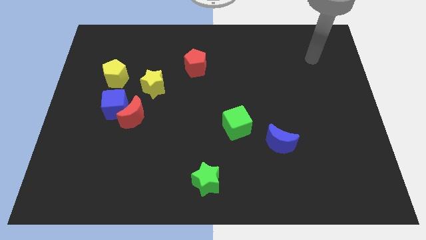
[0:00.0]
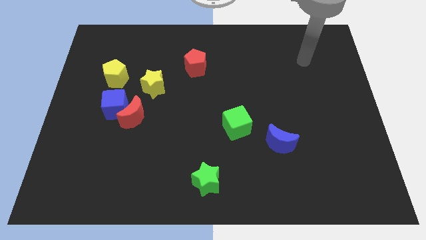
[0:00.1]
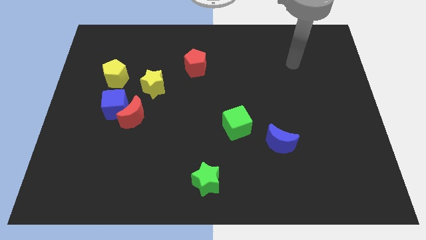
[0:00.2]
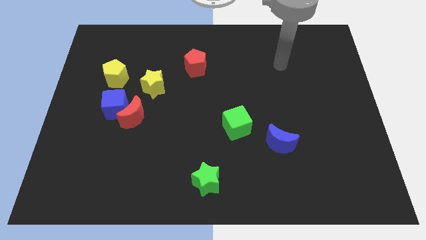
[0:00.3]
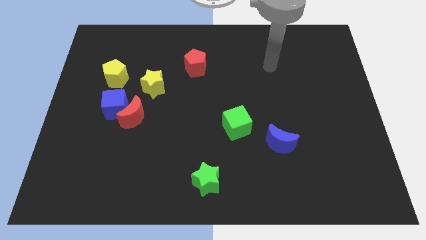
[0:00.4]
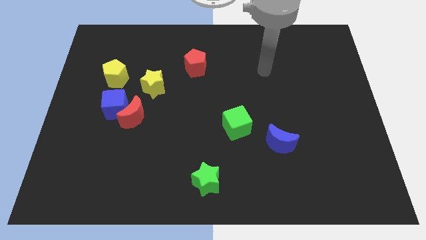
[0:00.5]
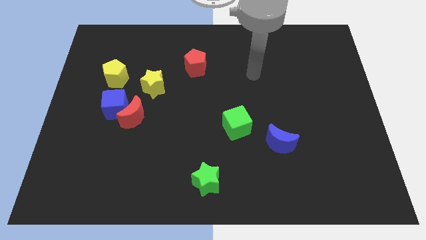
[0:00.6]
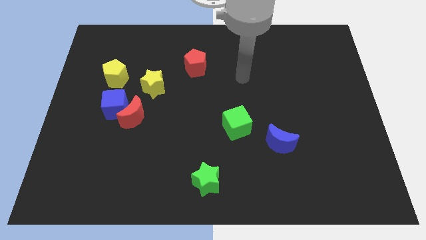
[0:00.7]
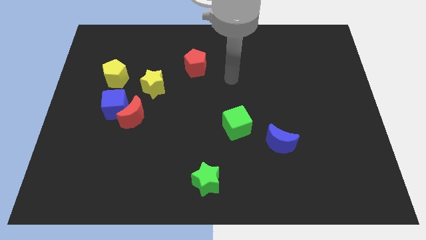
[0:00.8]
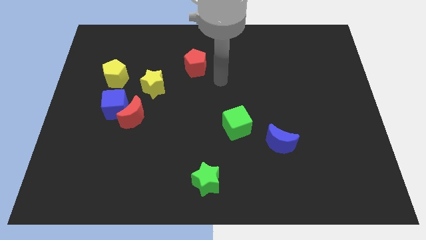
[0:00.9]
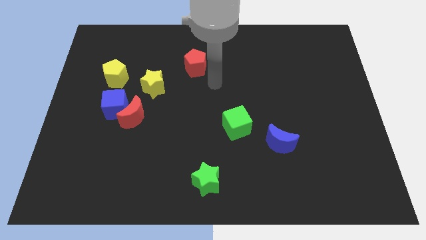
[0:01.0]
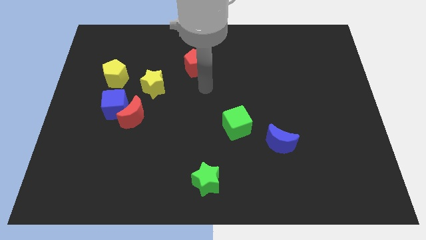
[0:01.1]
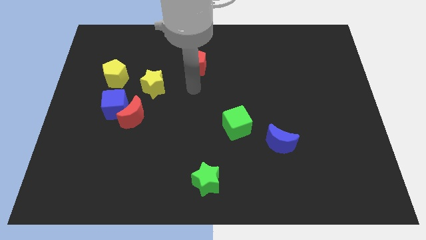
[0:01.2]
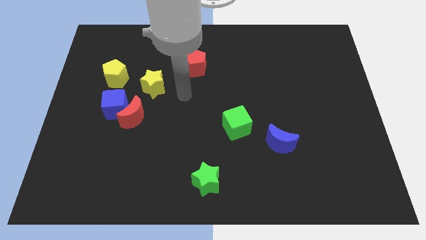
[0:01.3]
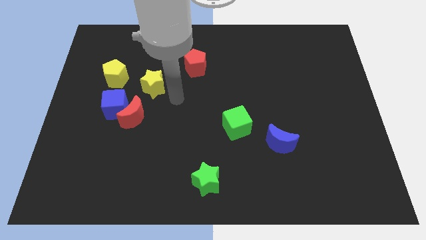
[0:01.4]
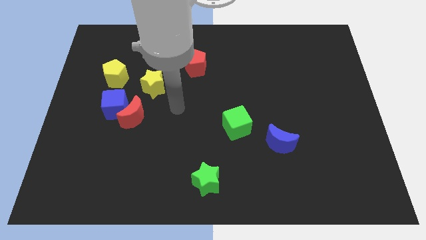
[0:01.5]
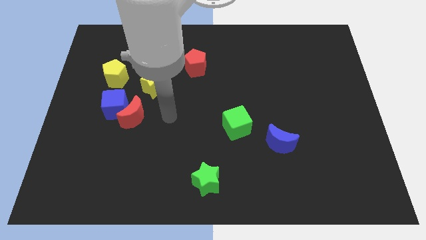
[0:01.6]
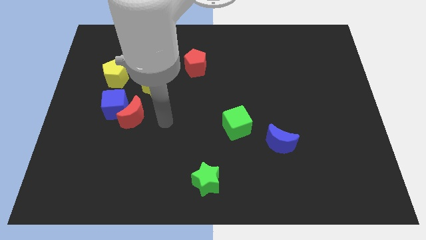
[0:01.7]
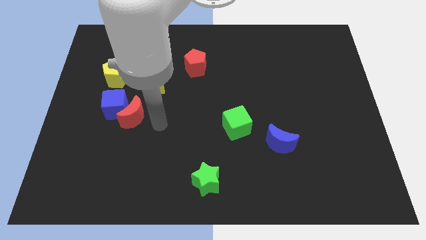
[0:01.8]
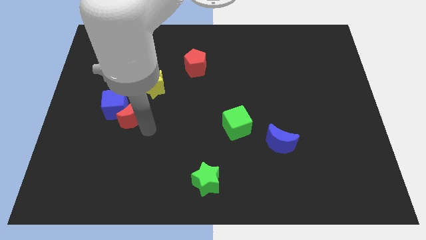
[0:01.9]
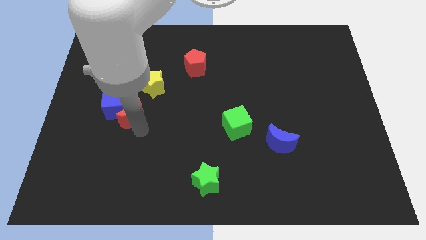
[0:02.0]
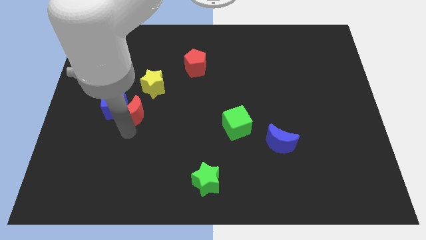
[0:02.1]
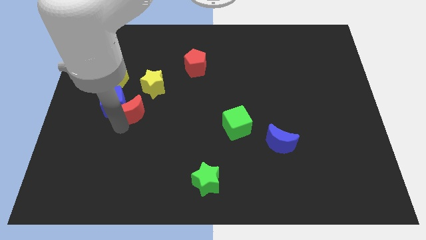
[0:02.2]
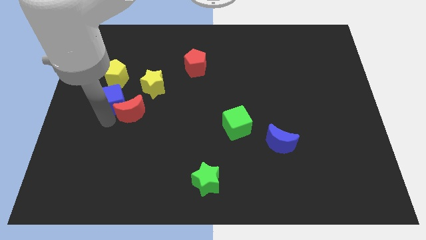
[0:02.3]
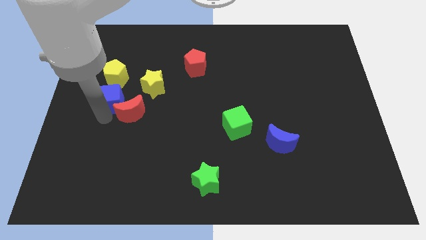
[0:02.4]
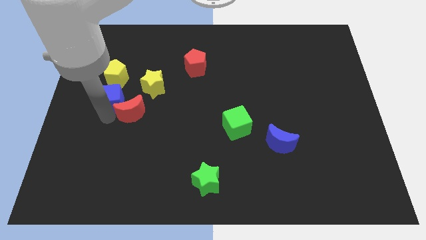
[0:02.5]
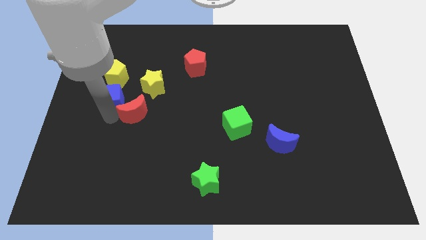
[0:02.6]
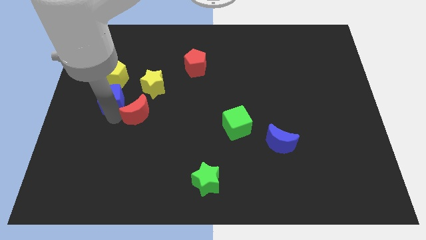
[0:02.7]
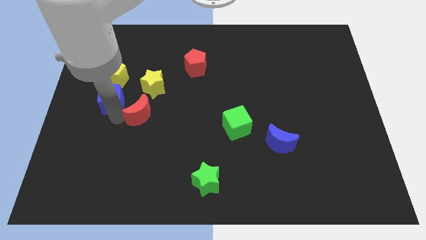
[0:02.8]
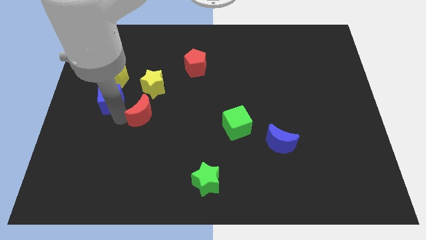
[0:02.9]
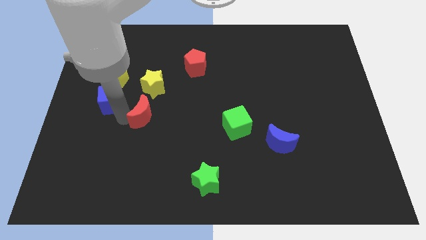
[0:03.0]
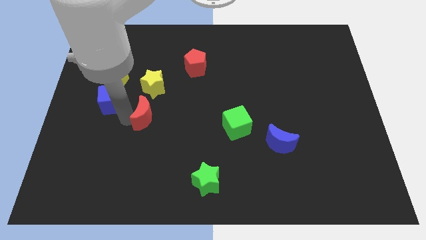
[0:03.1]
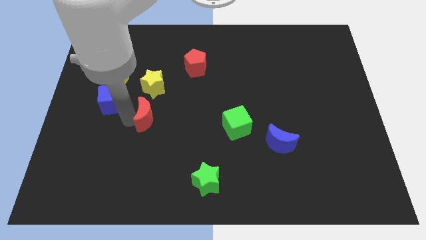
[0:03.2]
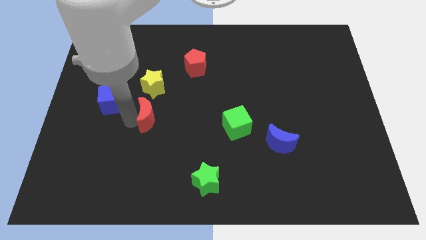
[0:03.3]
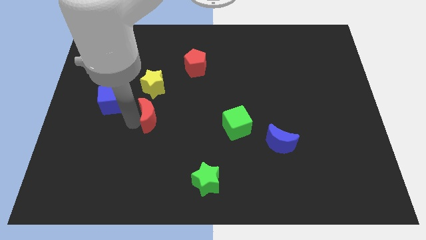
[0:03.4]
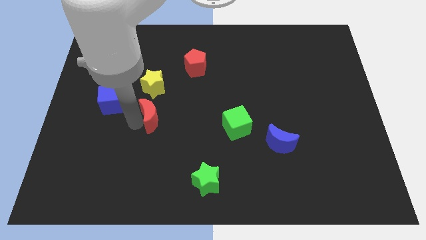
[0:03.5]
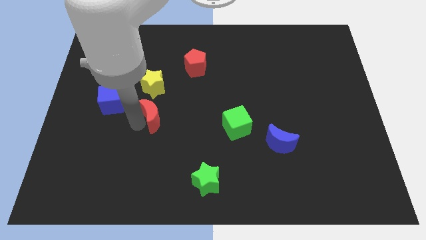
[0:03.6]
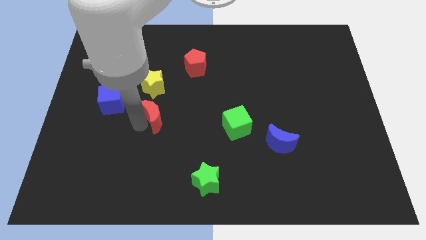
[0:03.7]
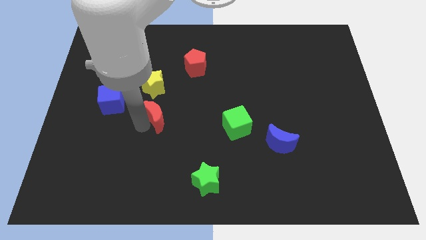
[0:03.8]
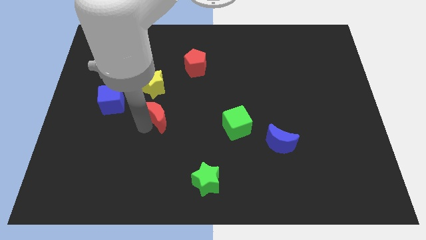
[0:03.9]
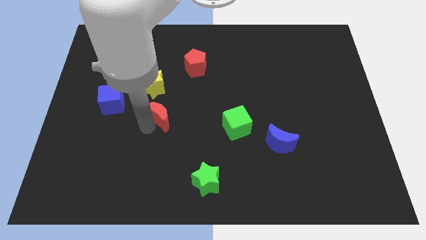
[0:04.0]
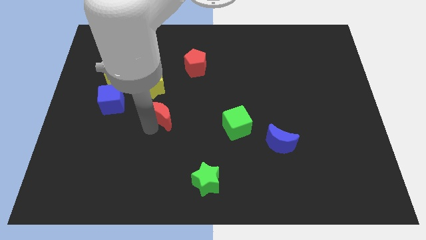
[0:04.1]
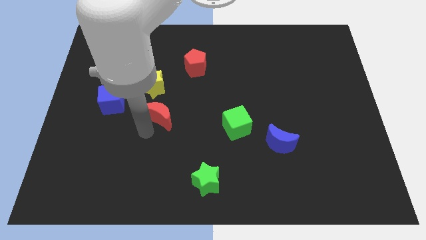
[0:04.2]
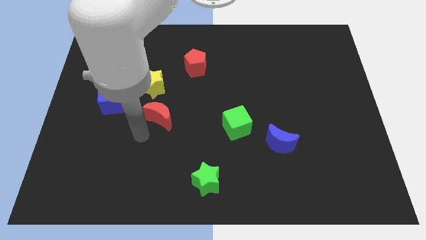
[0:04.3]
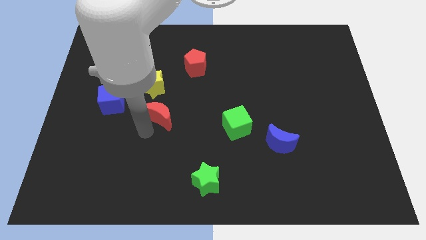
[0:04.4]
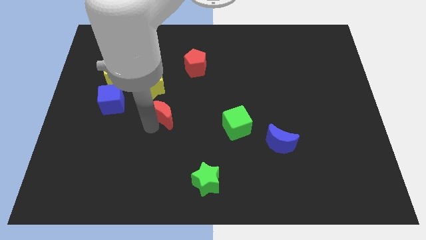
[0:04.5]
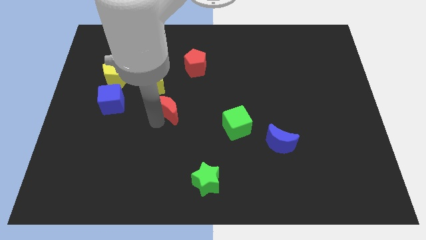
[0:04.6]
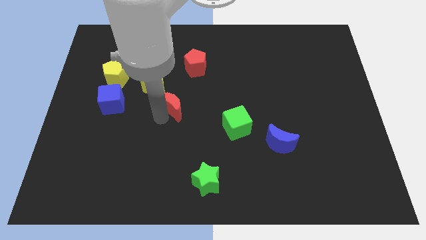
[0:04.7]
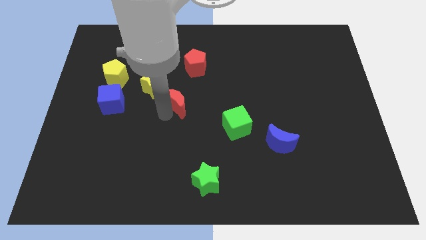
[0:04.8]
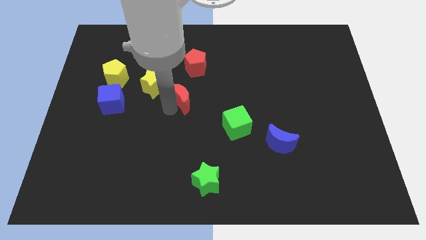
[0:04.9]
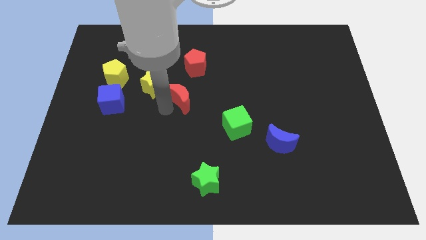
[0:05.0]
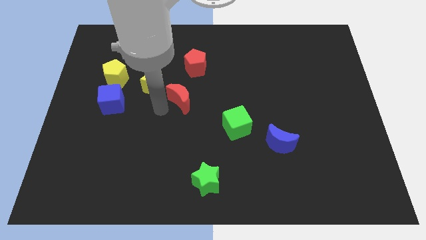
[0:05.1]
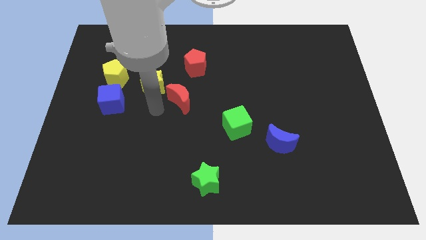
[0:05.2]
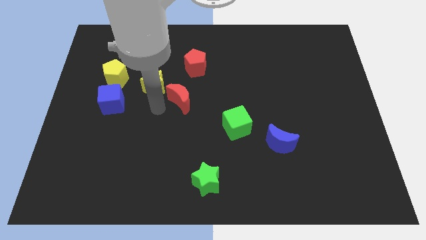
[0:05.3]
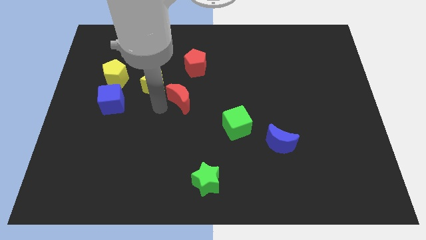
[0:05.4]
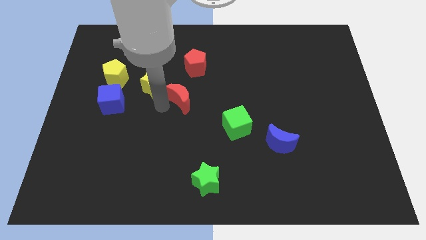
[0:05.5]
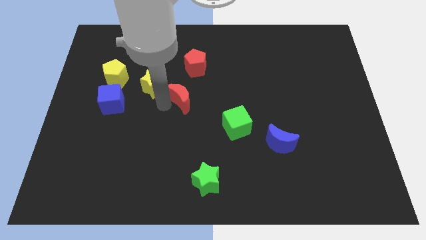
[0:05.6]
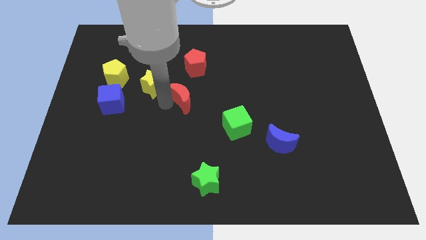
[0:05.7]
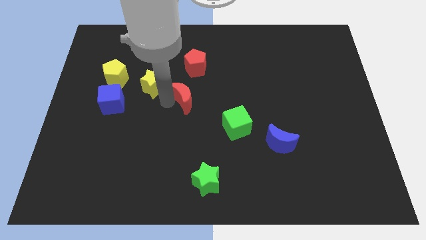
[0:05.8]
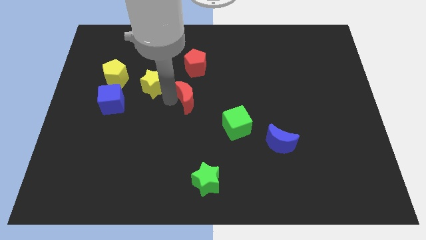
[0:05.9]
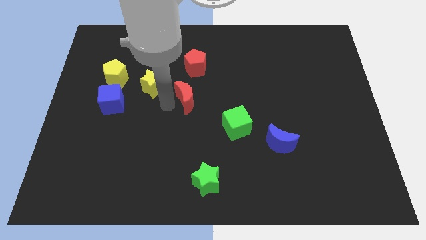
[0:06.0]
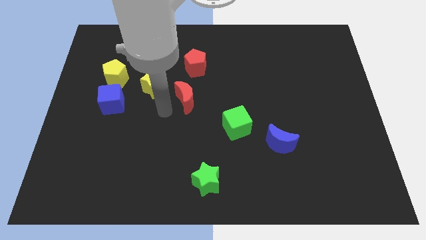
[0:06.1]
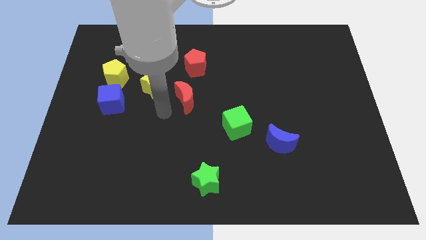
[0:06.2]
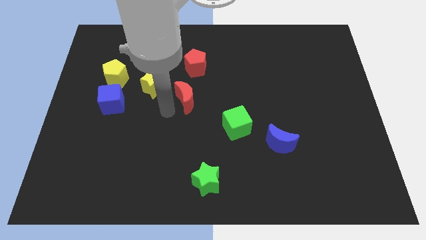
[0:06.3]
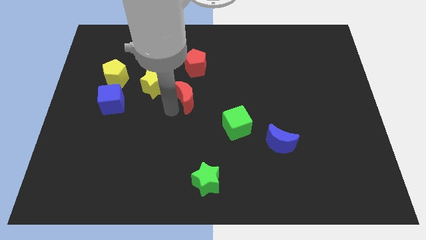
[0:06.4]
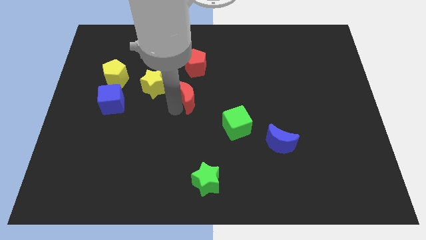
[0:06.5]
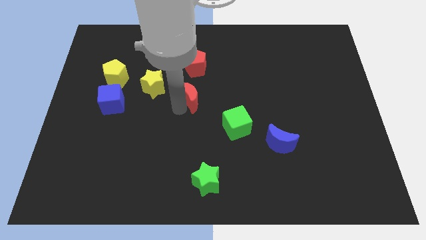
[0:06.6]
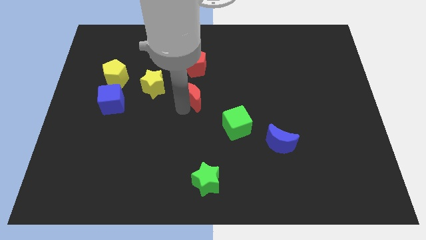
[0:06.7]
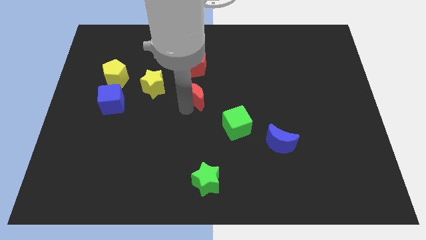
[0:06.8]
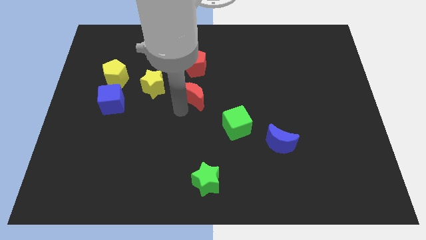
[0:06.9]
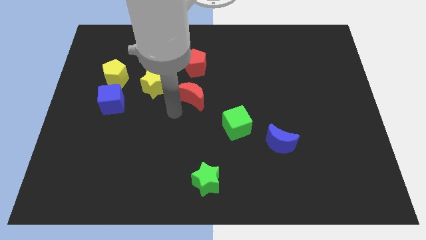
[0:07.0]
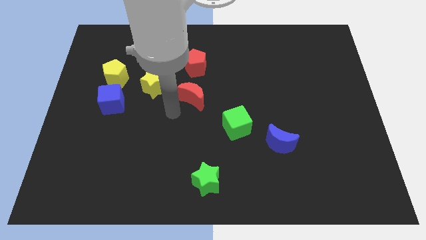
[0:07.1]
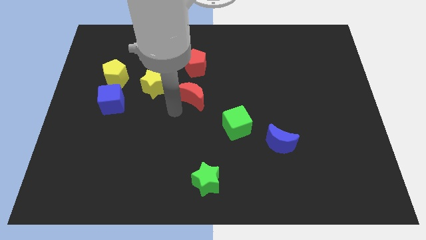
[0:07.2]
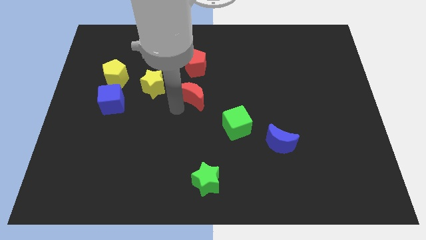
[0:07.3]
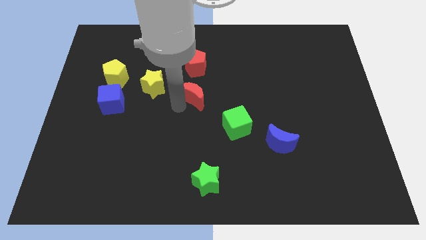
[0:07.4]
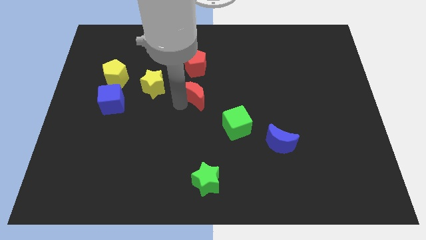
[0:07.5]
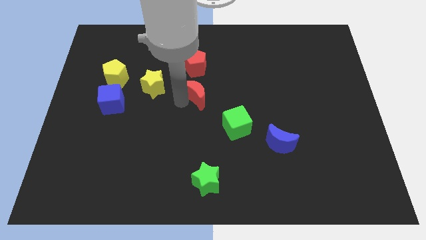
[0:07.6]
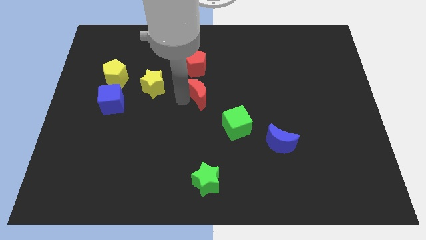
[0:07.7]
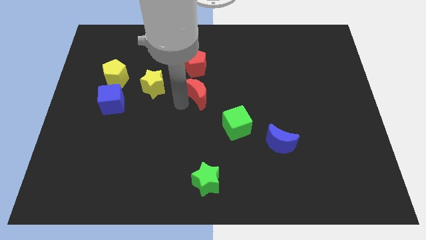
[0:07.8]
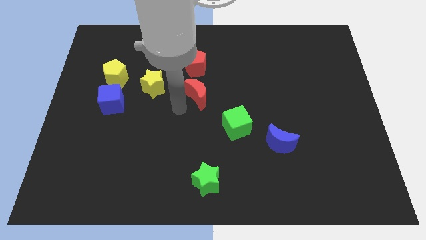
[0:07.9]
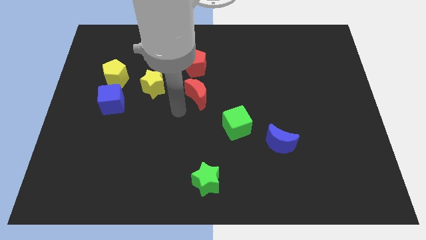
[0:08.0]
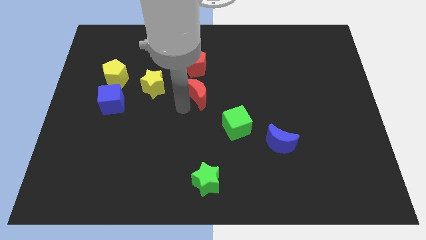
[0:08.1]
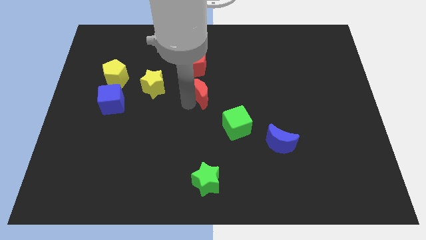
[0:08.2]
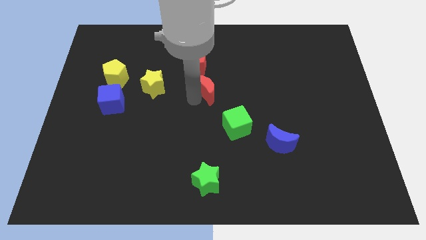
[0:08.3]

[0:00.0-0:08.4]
push the red moon diagonally down and to the right of the red pentagon
